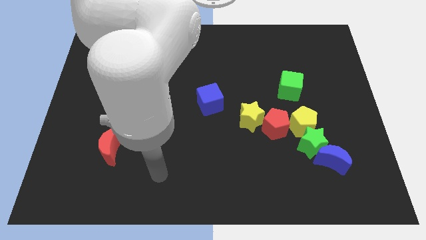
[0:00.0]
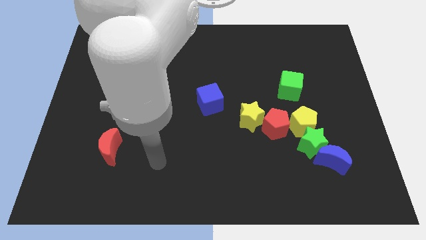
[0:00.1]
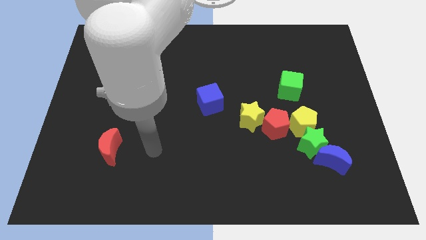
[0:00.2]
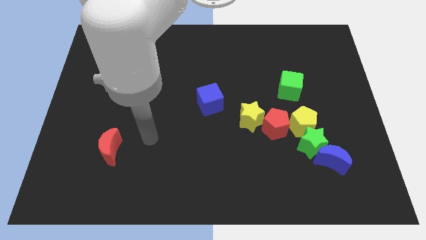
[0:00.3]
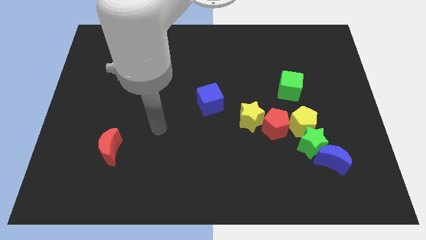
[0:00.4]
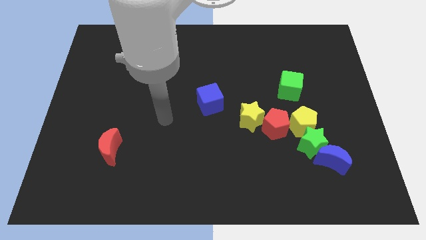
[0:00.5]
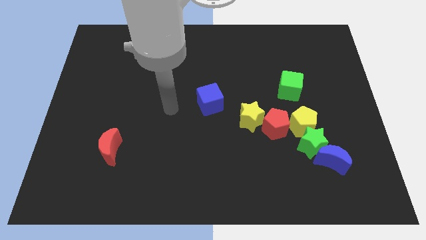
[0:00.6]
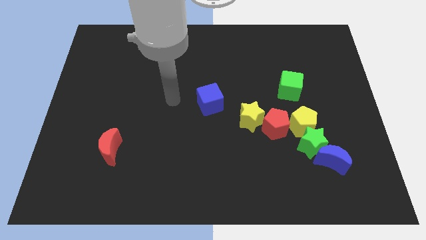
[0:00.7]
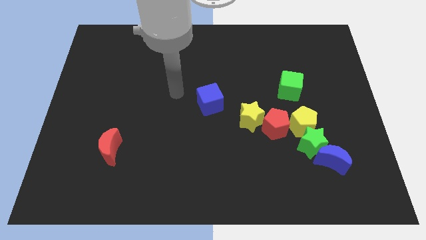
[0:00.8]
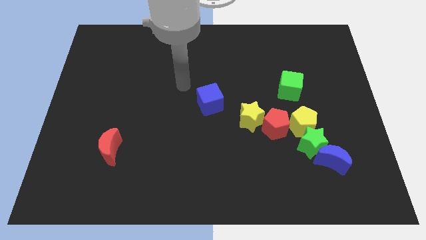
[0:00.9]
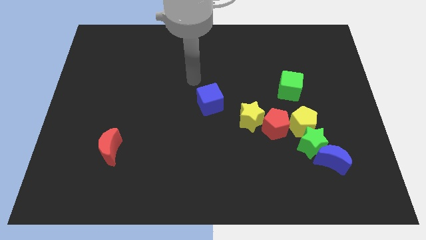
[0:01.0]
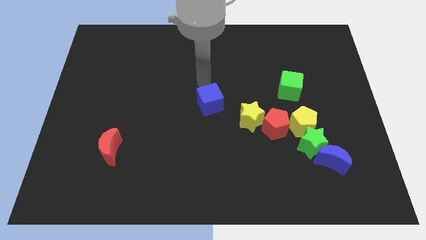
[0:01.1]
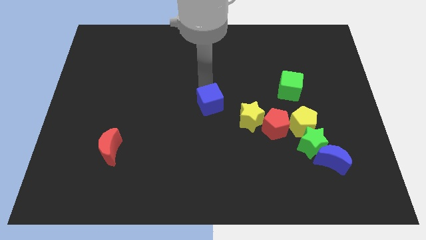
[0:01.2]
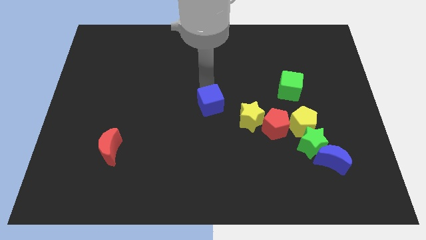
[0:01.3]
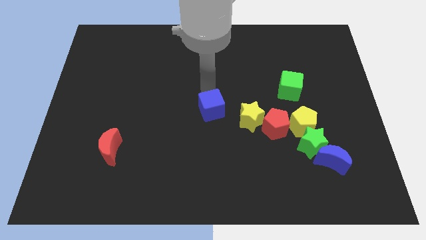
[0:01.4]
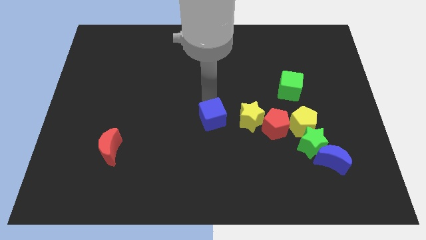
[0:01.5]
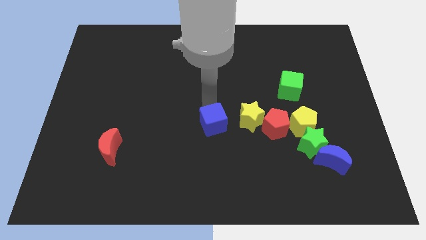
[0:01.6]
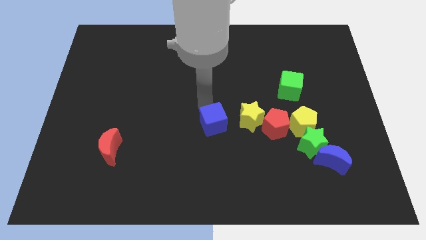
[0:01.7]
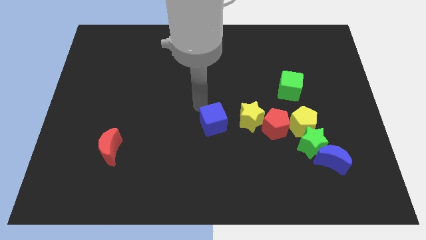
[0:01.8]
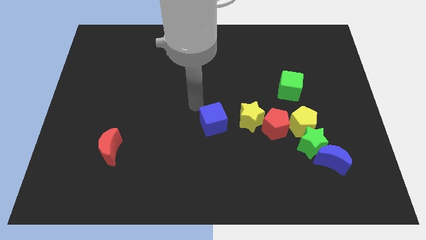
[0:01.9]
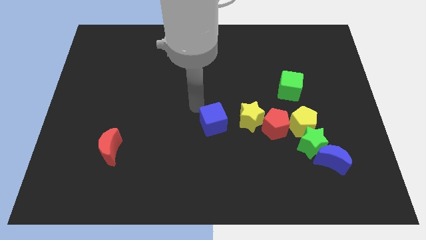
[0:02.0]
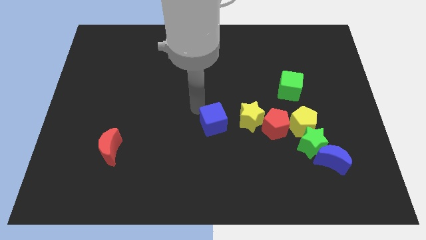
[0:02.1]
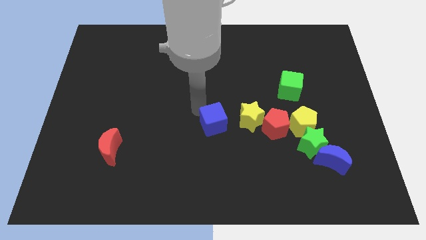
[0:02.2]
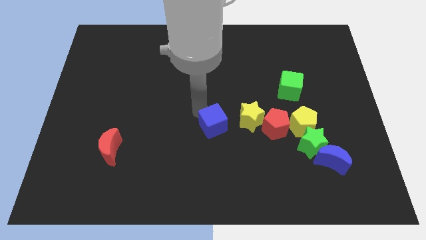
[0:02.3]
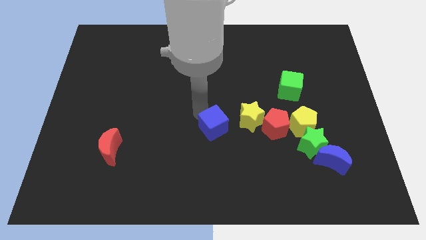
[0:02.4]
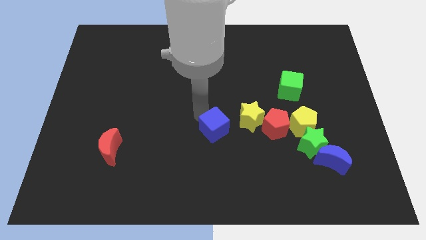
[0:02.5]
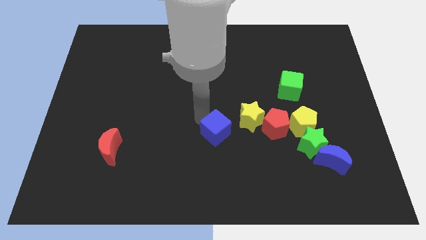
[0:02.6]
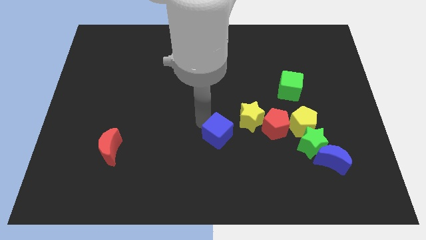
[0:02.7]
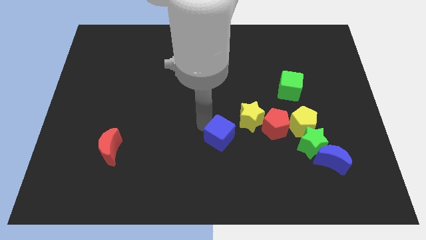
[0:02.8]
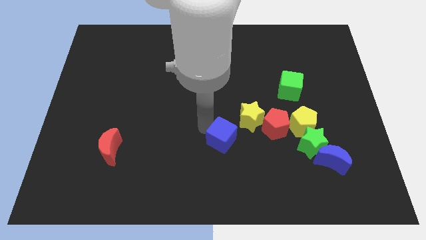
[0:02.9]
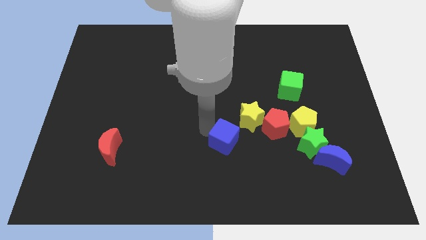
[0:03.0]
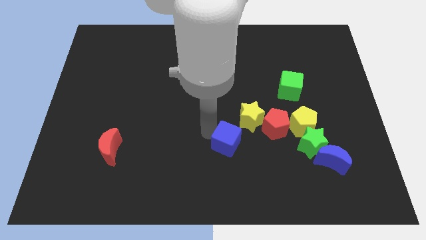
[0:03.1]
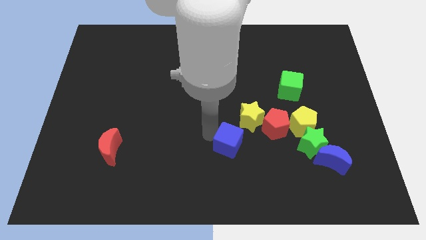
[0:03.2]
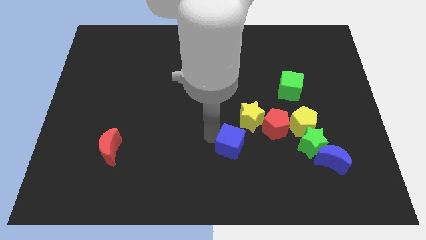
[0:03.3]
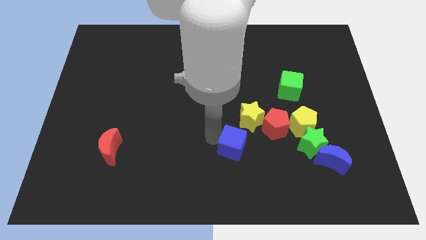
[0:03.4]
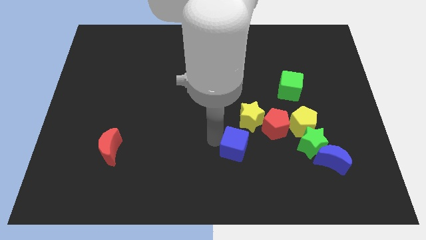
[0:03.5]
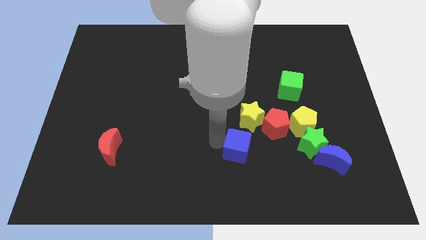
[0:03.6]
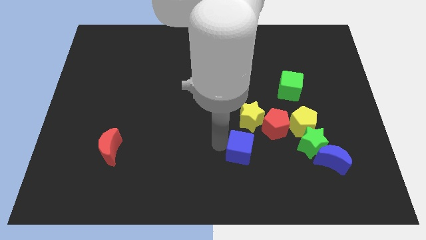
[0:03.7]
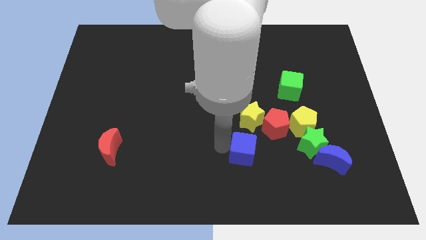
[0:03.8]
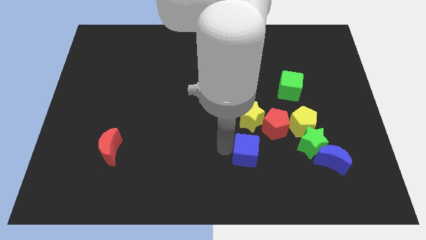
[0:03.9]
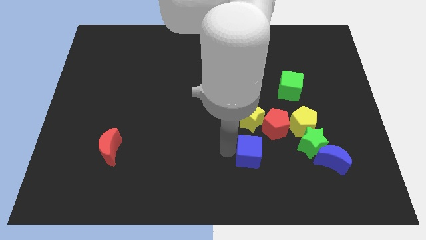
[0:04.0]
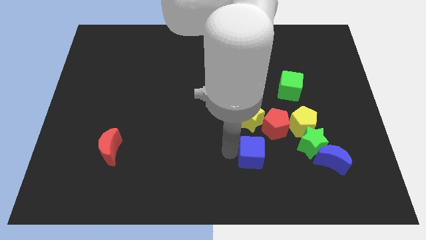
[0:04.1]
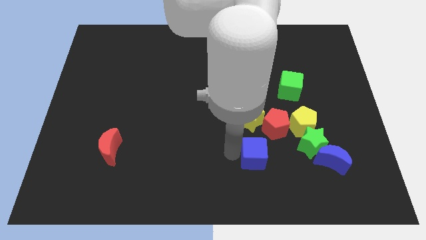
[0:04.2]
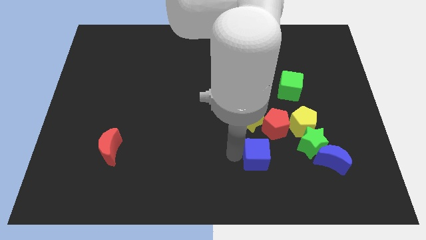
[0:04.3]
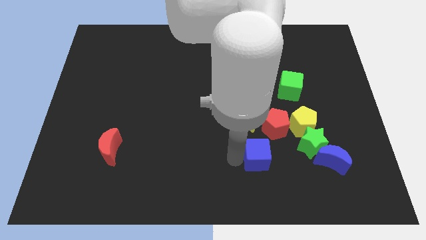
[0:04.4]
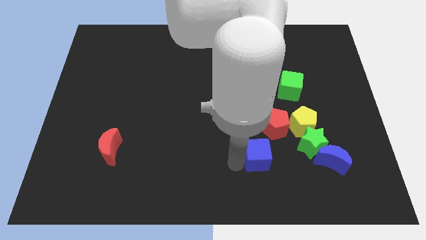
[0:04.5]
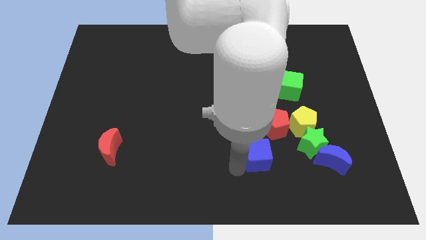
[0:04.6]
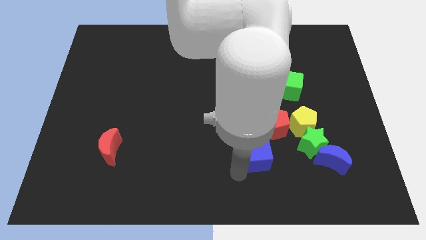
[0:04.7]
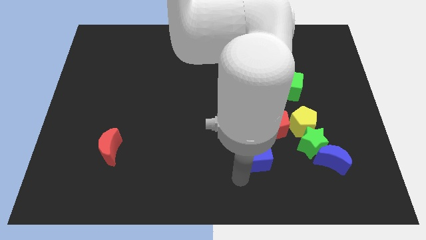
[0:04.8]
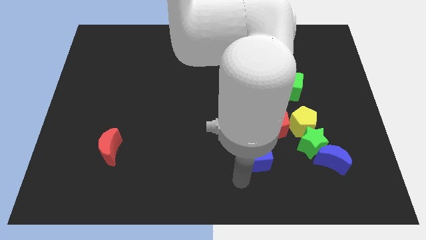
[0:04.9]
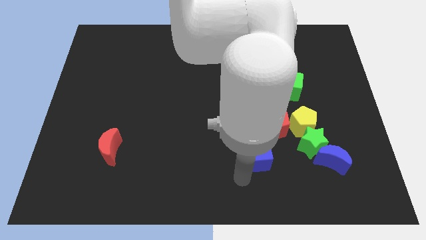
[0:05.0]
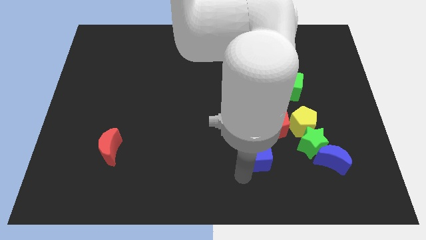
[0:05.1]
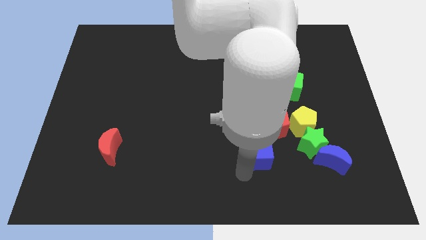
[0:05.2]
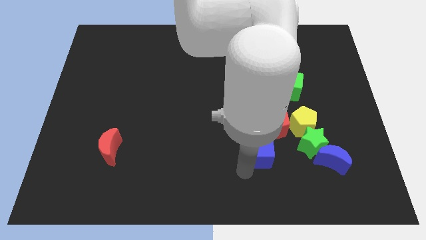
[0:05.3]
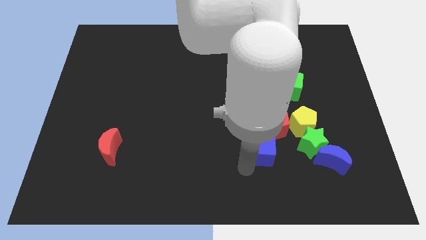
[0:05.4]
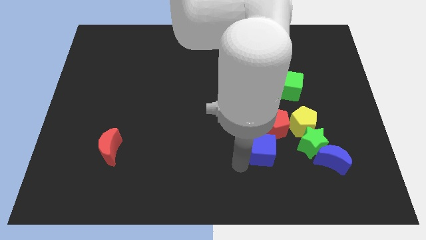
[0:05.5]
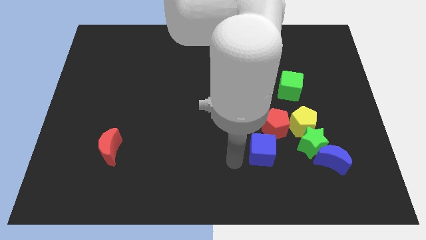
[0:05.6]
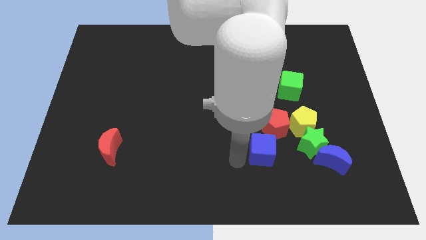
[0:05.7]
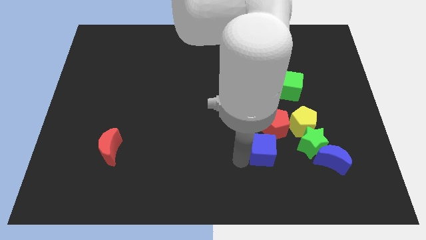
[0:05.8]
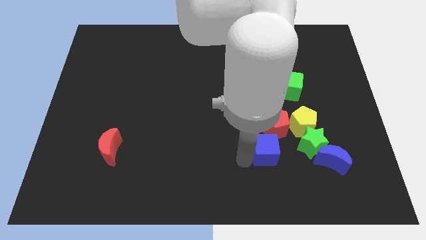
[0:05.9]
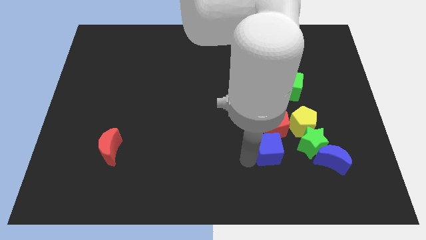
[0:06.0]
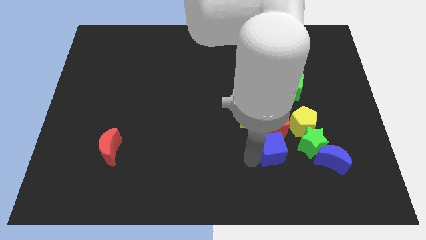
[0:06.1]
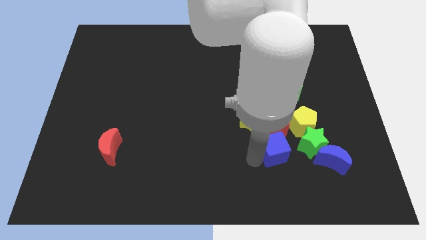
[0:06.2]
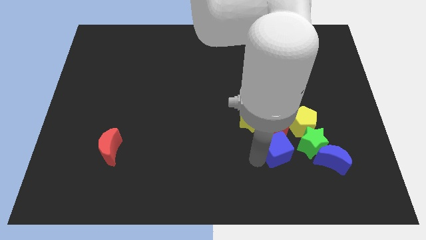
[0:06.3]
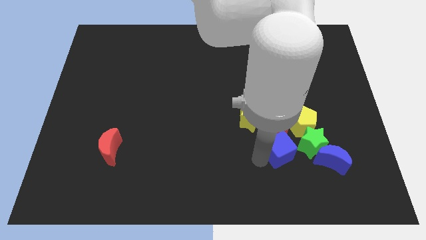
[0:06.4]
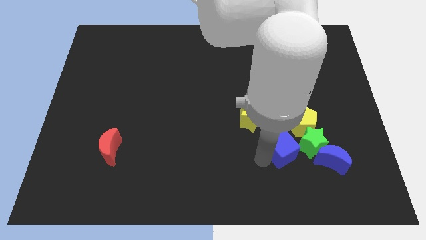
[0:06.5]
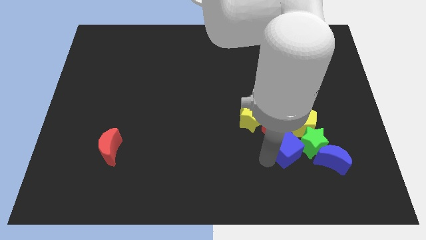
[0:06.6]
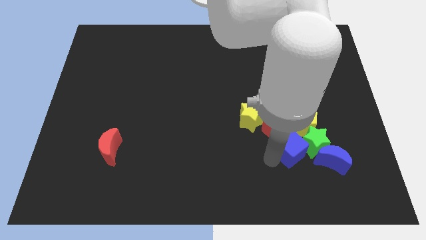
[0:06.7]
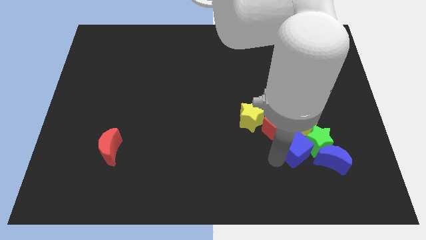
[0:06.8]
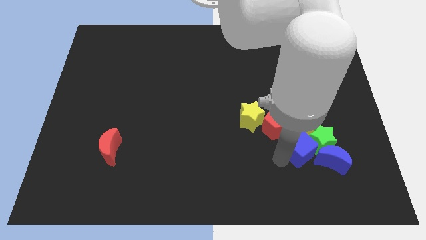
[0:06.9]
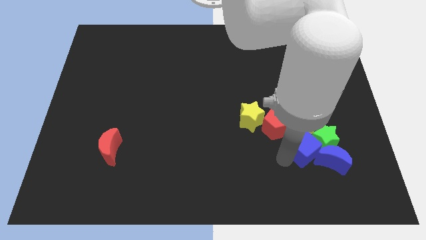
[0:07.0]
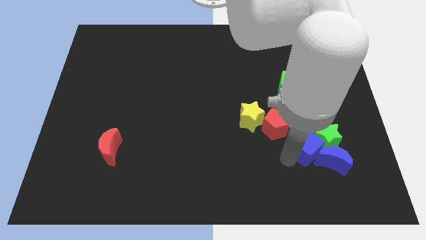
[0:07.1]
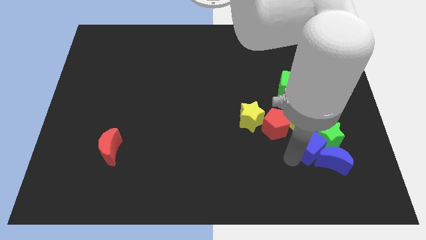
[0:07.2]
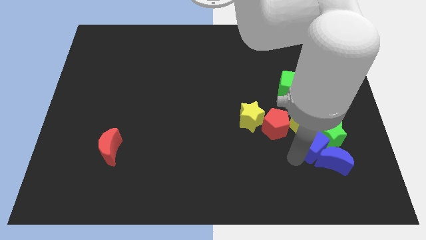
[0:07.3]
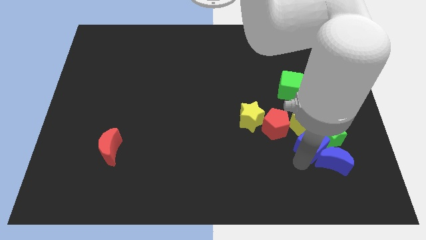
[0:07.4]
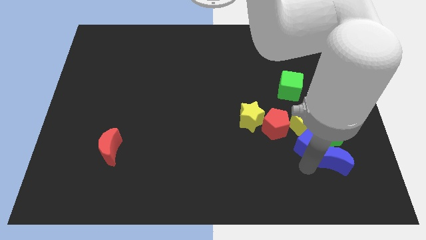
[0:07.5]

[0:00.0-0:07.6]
move the blue cube to the yellow pentagon
